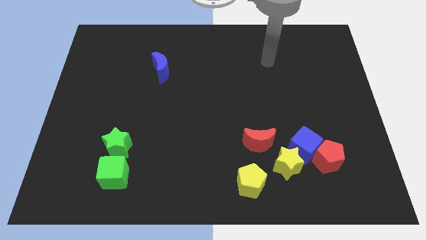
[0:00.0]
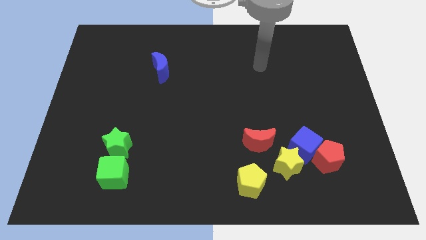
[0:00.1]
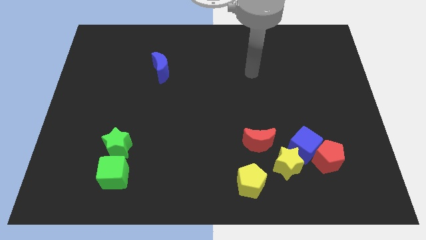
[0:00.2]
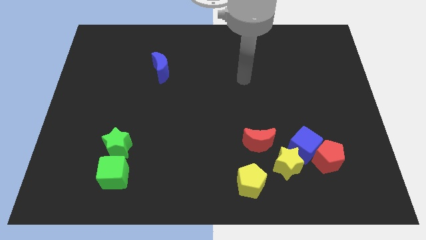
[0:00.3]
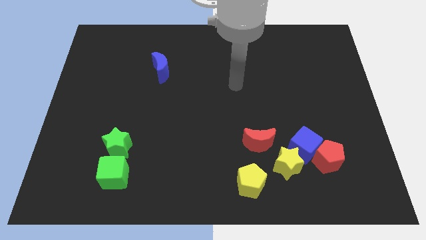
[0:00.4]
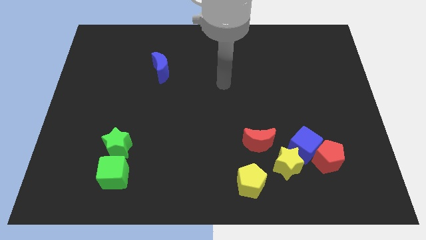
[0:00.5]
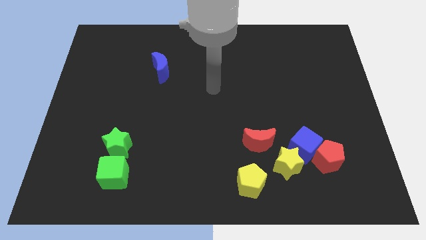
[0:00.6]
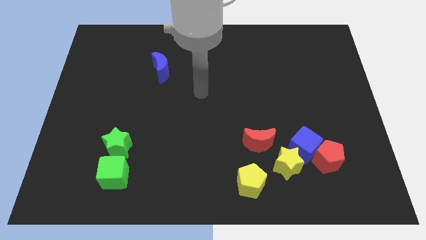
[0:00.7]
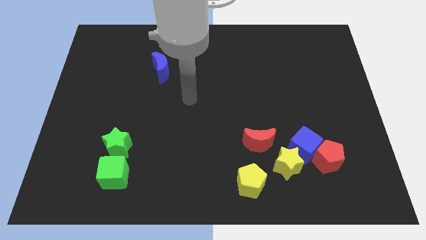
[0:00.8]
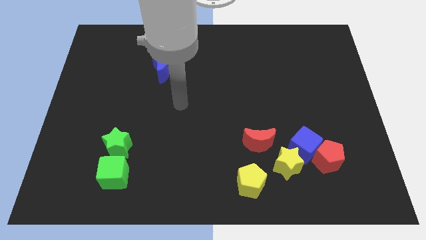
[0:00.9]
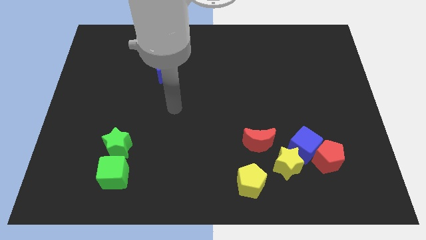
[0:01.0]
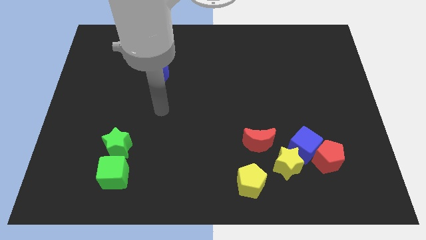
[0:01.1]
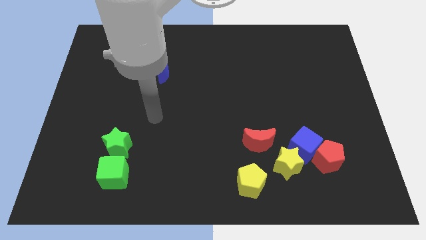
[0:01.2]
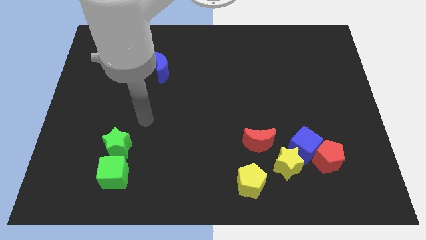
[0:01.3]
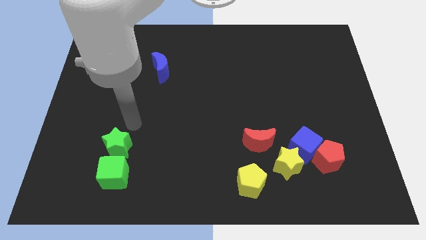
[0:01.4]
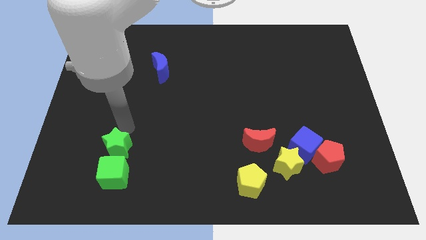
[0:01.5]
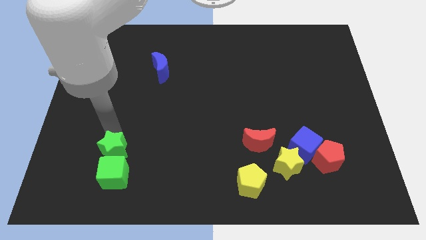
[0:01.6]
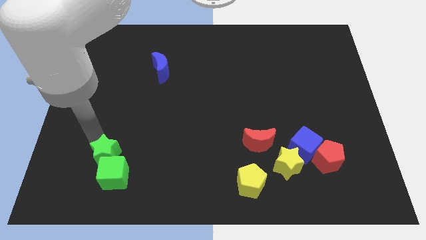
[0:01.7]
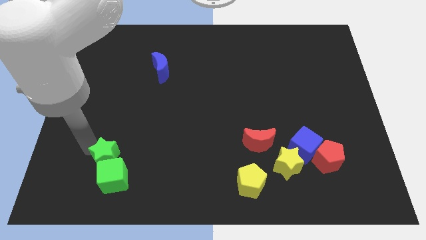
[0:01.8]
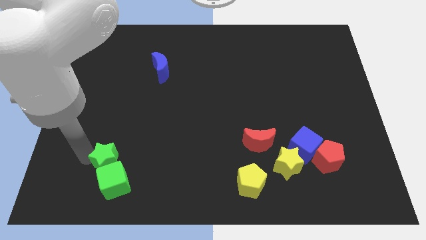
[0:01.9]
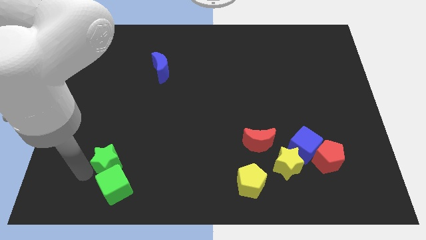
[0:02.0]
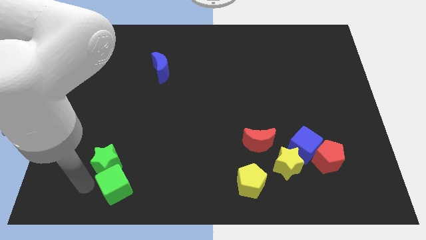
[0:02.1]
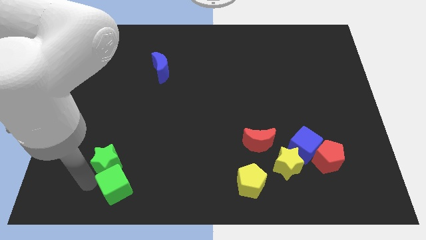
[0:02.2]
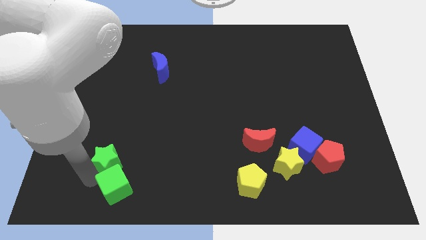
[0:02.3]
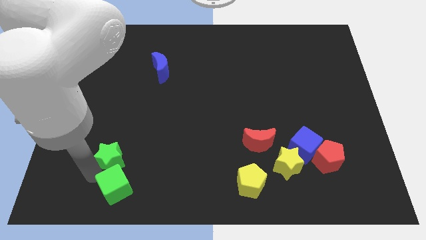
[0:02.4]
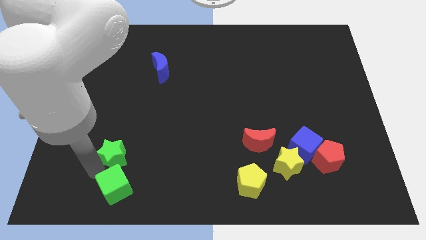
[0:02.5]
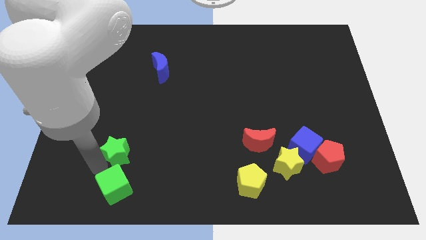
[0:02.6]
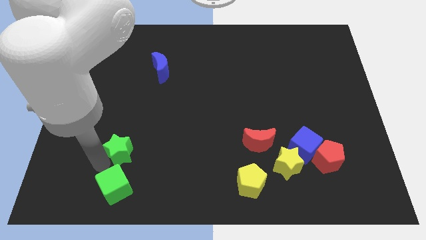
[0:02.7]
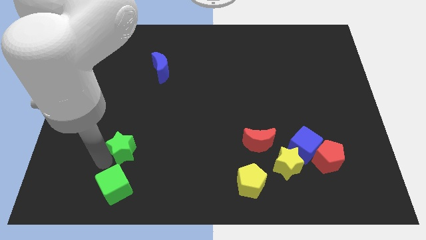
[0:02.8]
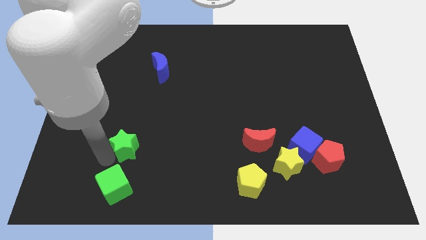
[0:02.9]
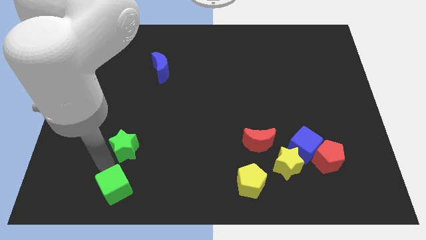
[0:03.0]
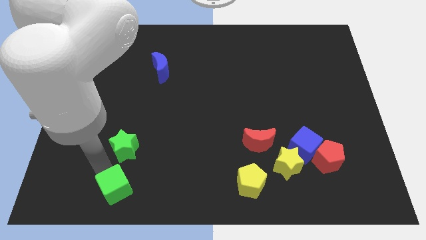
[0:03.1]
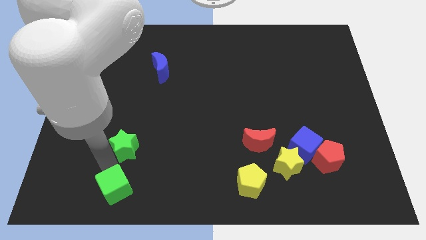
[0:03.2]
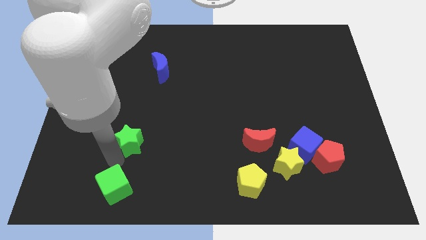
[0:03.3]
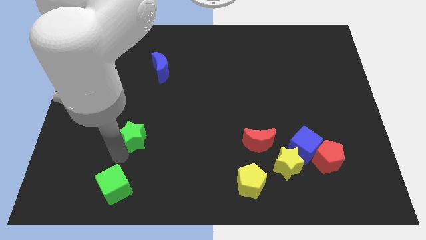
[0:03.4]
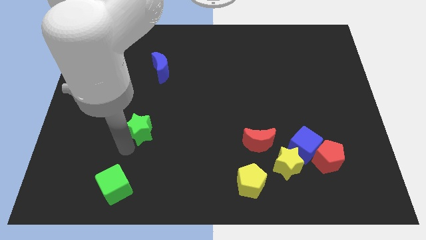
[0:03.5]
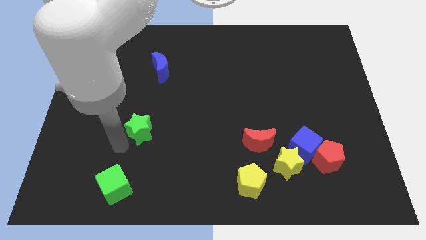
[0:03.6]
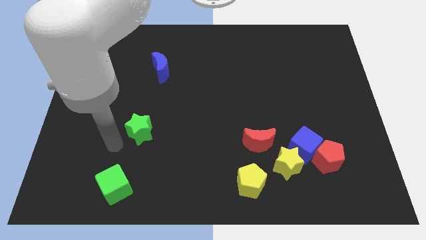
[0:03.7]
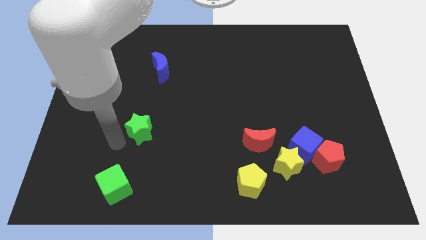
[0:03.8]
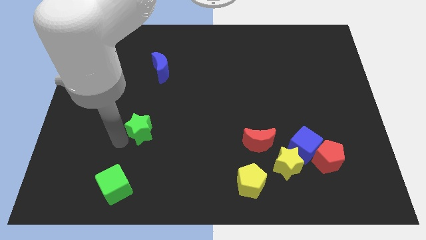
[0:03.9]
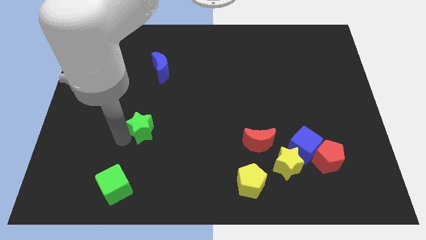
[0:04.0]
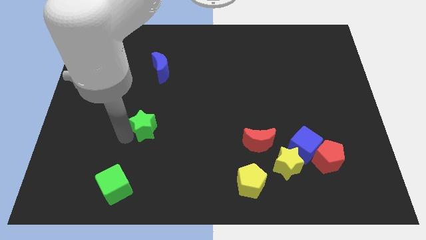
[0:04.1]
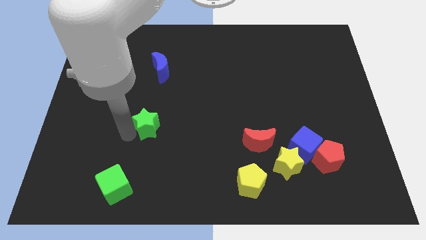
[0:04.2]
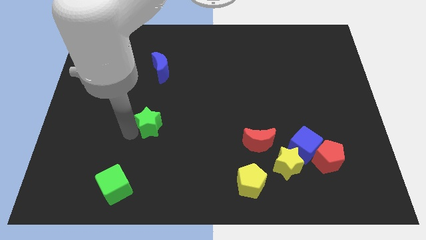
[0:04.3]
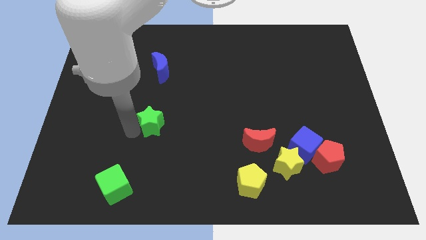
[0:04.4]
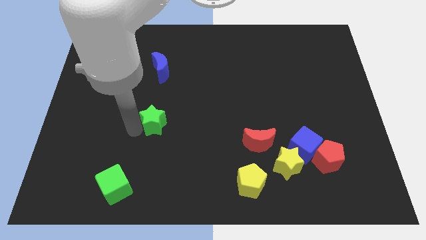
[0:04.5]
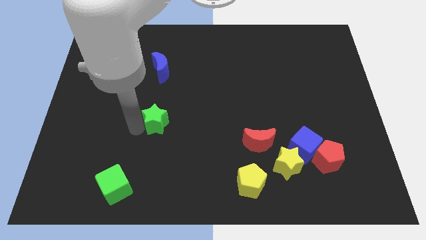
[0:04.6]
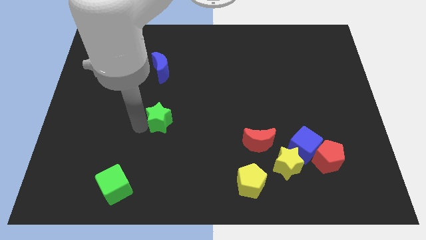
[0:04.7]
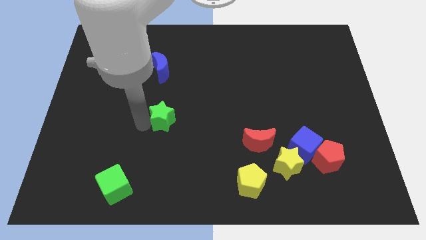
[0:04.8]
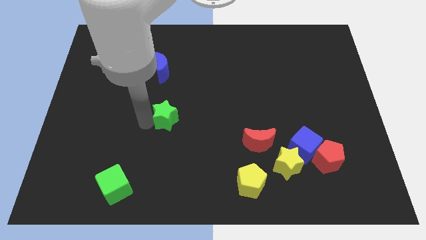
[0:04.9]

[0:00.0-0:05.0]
put the green star to the middle of the board

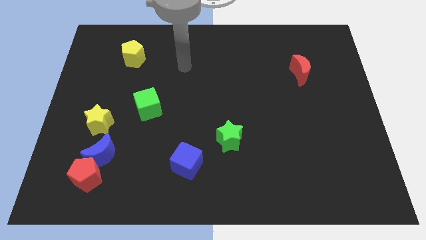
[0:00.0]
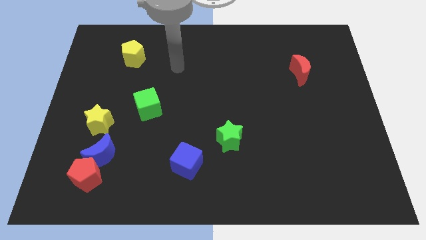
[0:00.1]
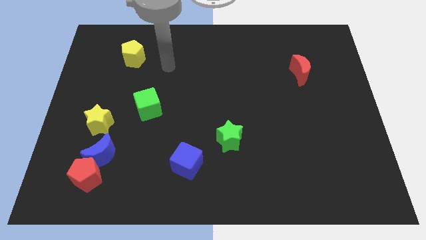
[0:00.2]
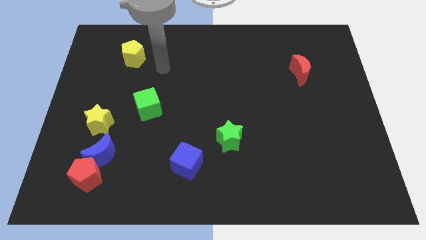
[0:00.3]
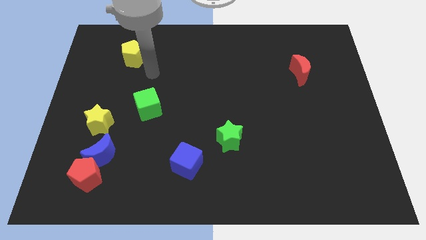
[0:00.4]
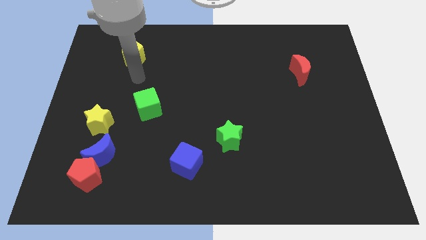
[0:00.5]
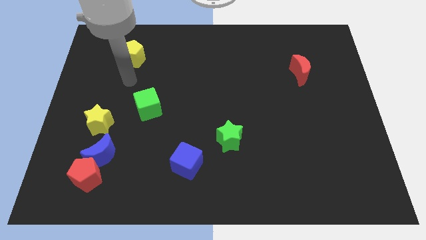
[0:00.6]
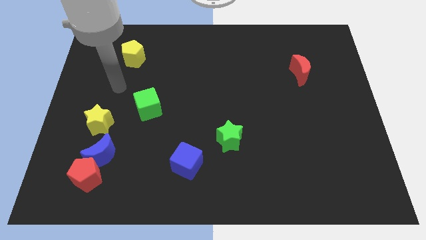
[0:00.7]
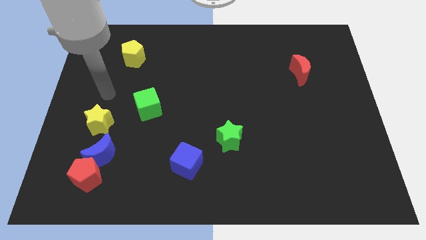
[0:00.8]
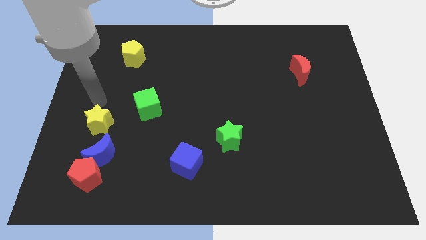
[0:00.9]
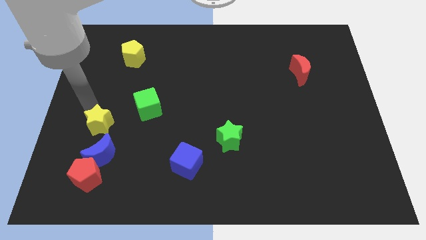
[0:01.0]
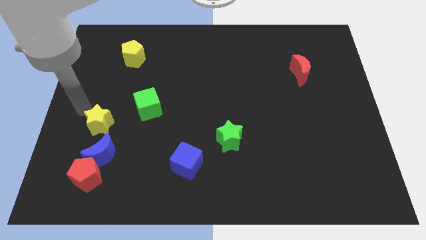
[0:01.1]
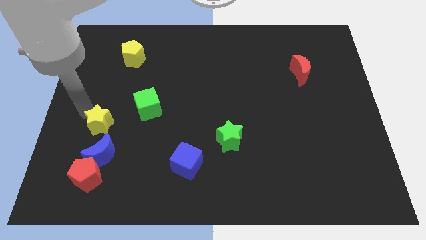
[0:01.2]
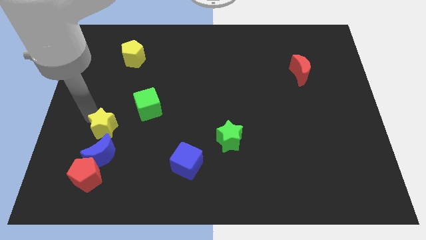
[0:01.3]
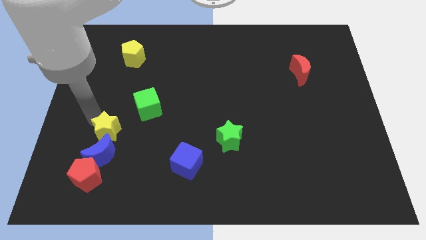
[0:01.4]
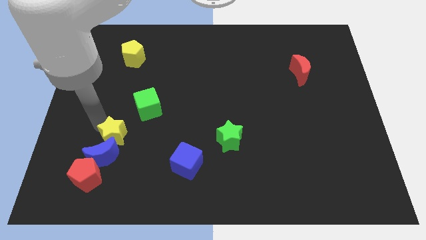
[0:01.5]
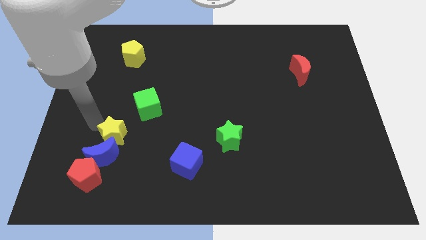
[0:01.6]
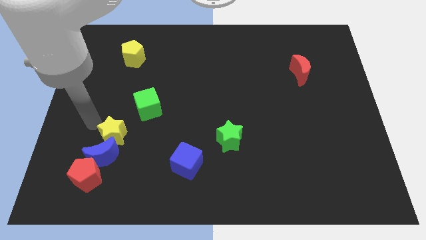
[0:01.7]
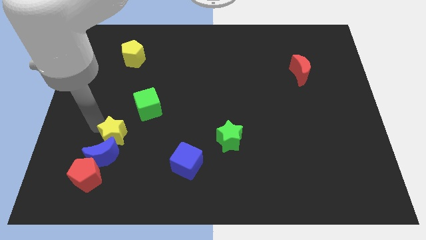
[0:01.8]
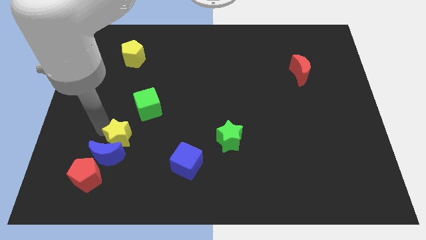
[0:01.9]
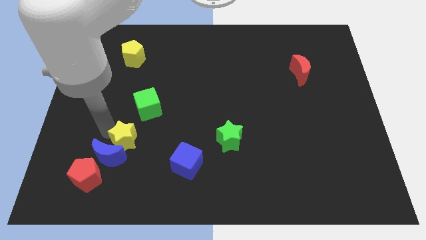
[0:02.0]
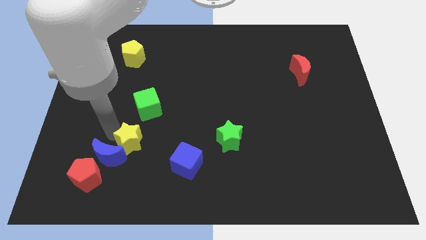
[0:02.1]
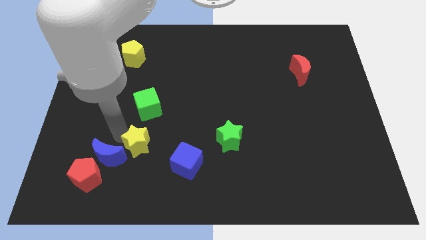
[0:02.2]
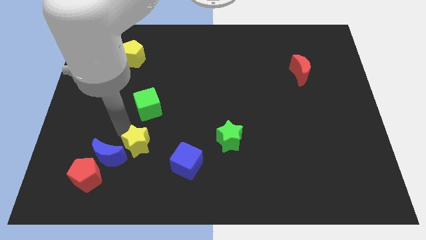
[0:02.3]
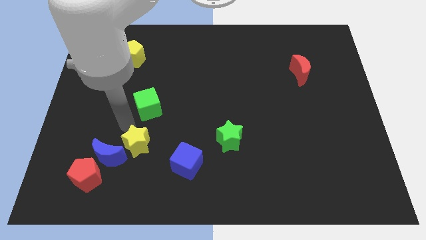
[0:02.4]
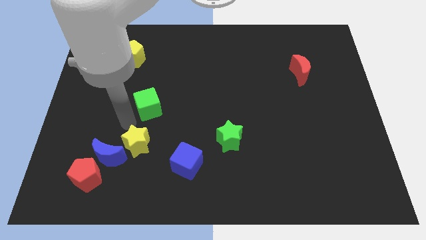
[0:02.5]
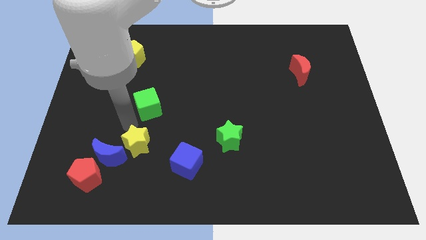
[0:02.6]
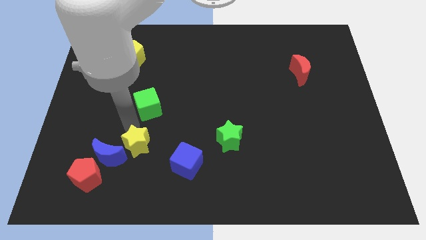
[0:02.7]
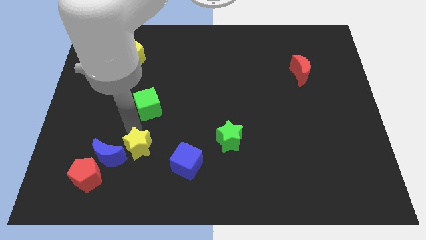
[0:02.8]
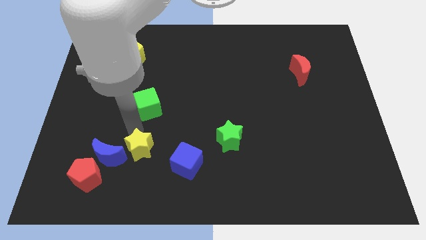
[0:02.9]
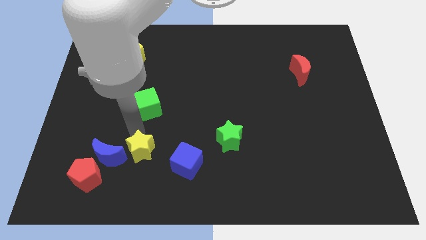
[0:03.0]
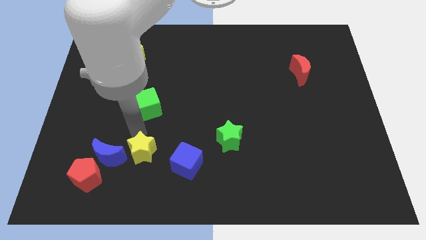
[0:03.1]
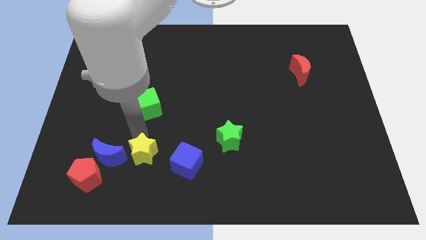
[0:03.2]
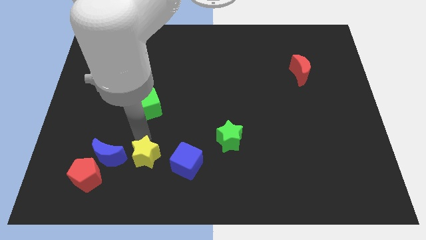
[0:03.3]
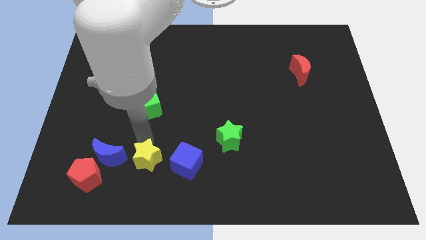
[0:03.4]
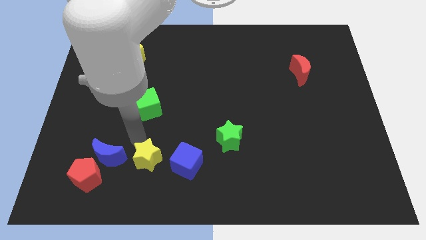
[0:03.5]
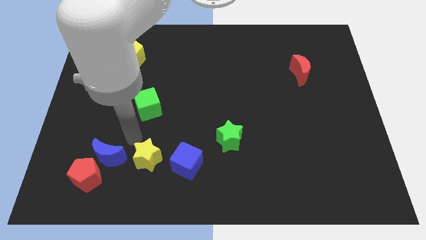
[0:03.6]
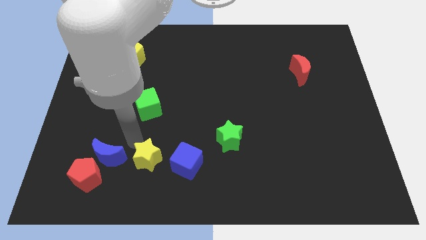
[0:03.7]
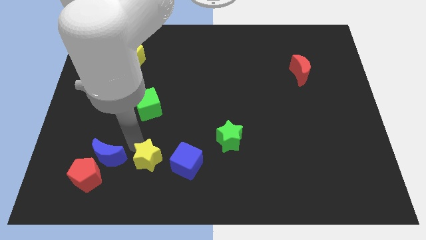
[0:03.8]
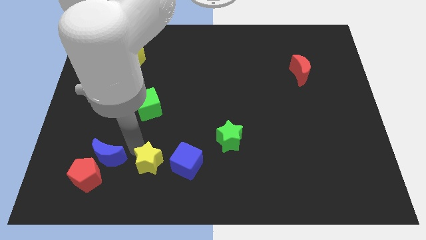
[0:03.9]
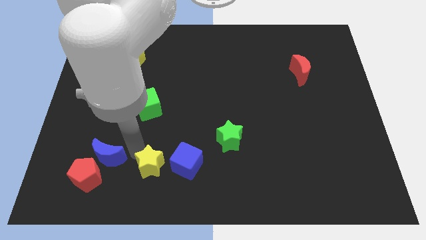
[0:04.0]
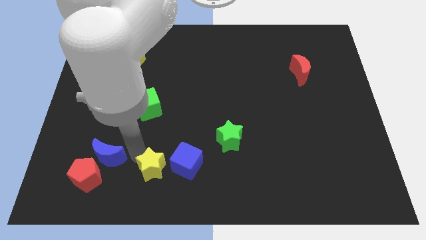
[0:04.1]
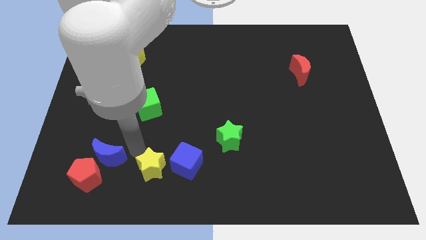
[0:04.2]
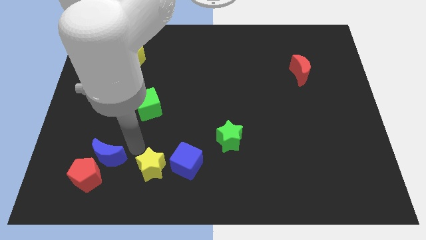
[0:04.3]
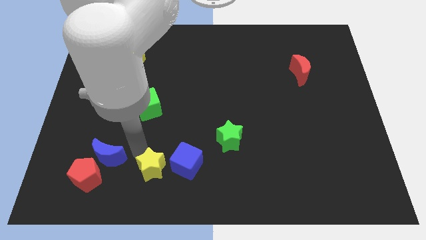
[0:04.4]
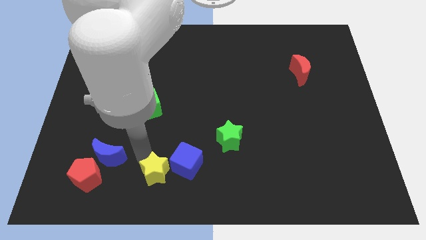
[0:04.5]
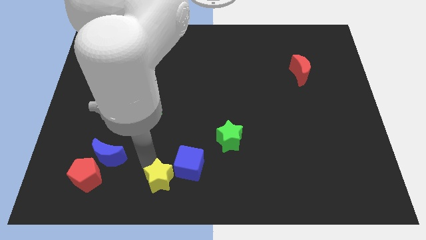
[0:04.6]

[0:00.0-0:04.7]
move the yellow star to the bottom side
